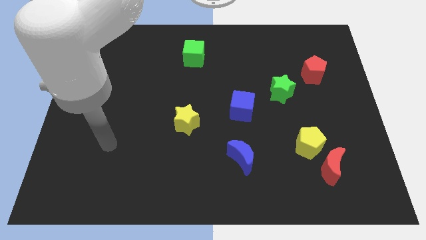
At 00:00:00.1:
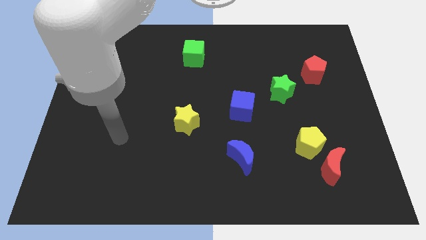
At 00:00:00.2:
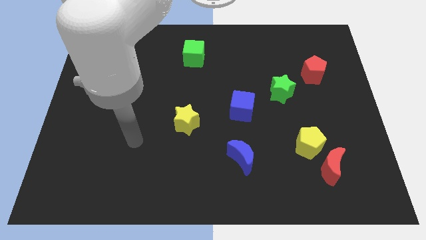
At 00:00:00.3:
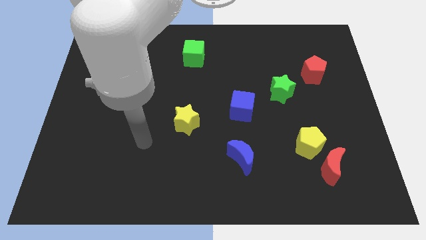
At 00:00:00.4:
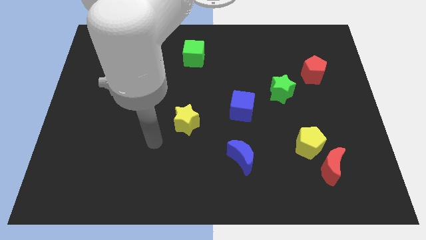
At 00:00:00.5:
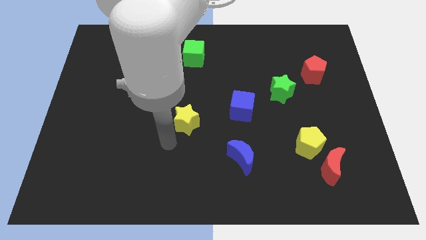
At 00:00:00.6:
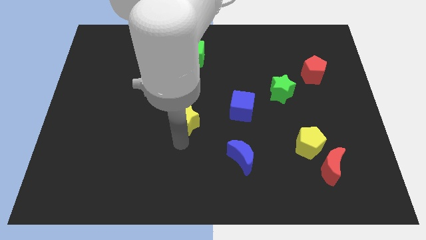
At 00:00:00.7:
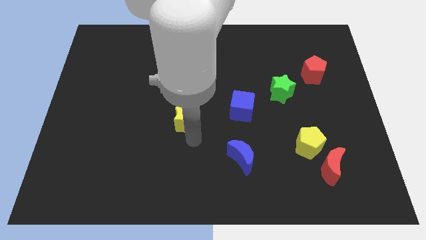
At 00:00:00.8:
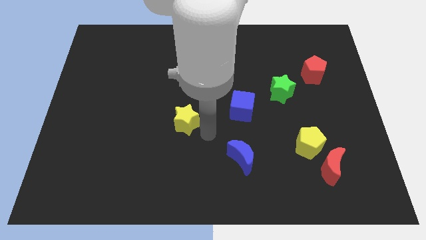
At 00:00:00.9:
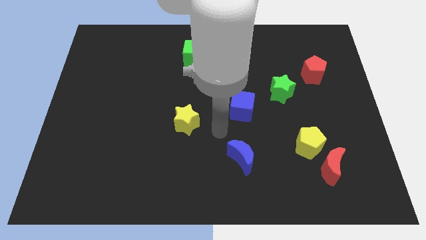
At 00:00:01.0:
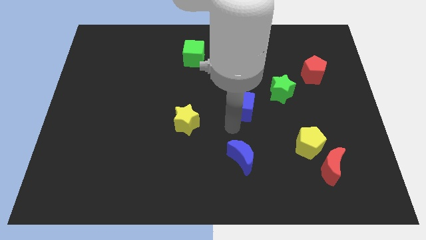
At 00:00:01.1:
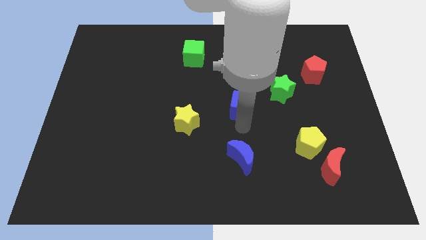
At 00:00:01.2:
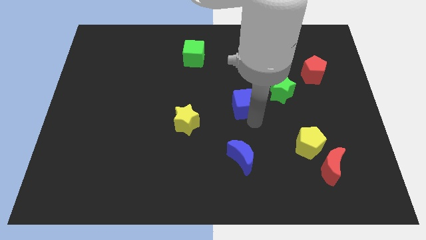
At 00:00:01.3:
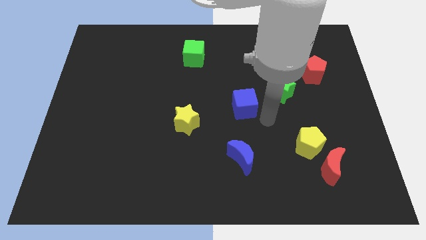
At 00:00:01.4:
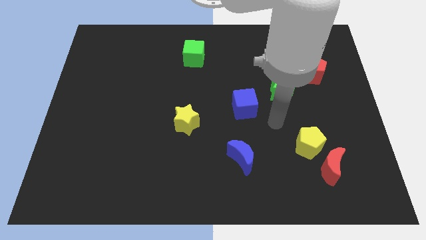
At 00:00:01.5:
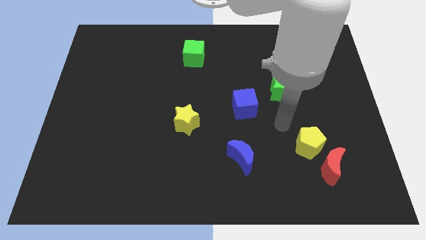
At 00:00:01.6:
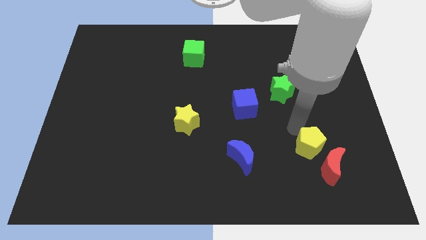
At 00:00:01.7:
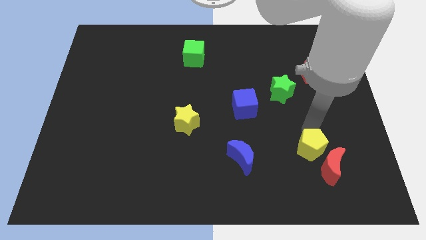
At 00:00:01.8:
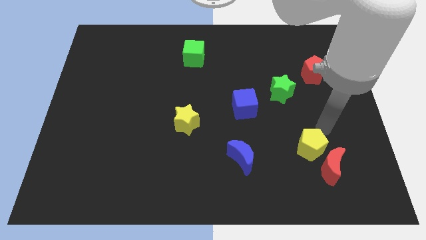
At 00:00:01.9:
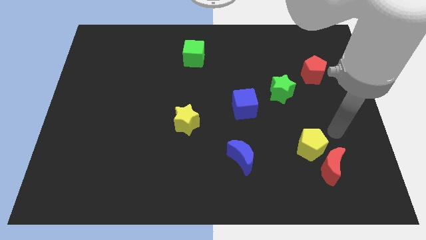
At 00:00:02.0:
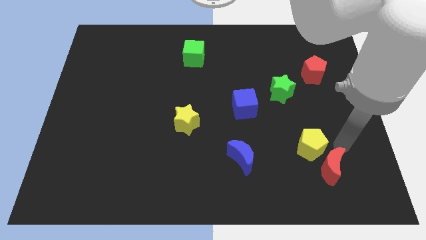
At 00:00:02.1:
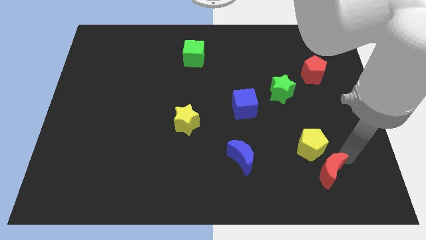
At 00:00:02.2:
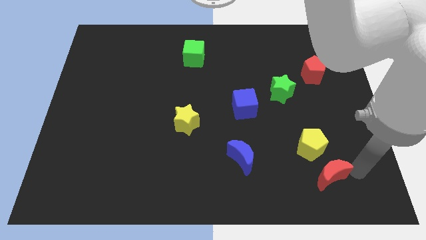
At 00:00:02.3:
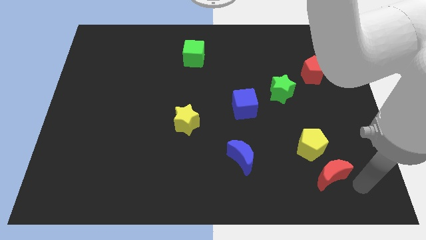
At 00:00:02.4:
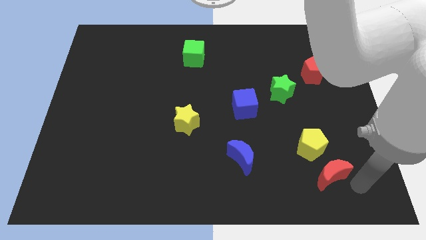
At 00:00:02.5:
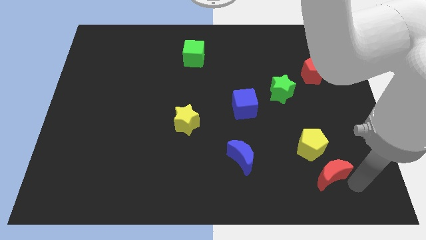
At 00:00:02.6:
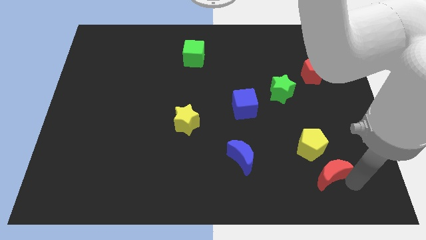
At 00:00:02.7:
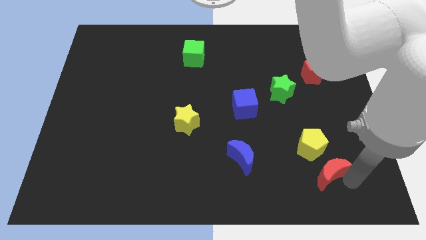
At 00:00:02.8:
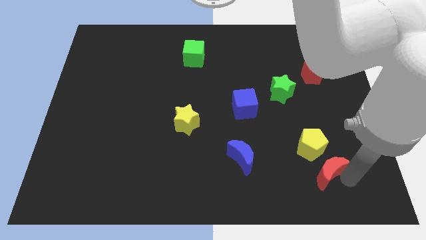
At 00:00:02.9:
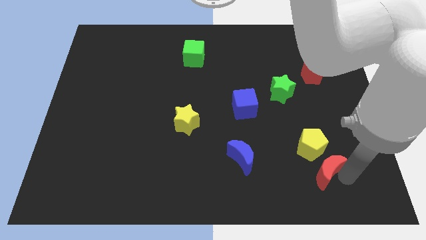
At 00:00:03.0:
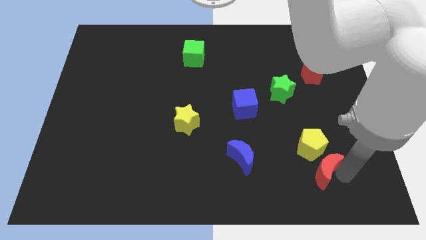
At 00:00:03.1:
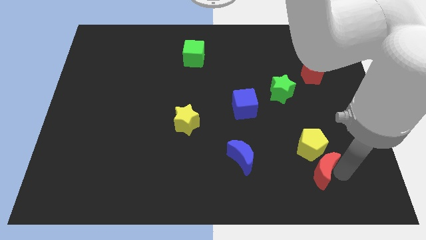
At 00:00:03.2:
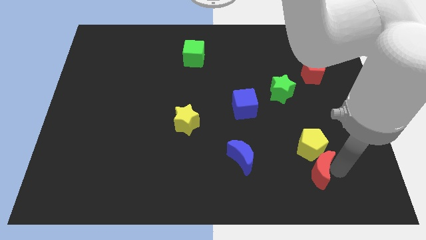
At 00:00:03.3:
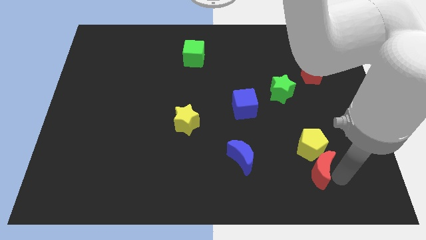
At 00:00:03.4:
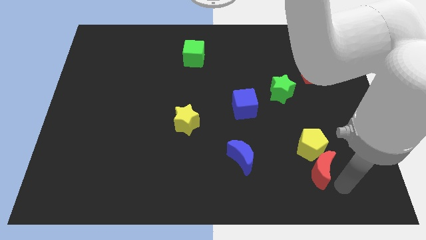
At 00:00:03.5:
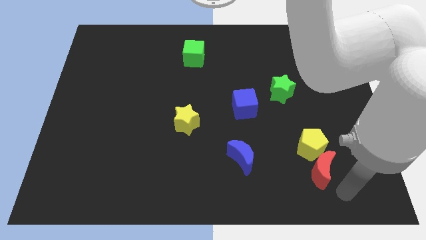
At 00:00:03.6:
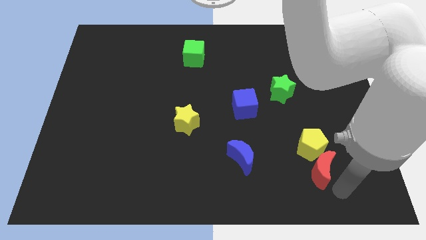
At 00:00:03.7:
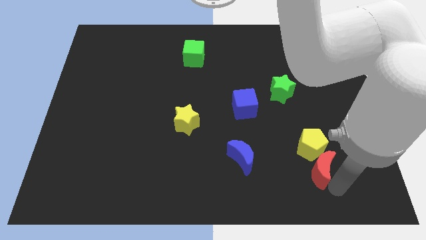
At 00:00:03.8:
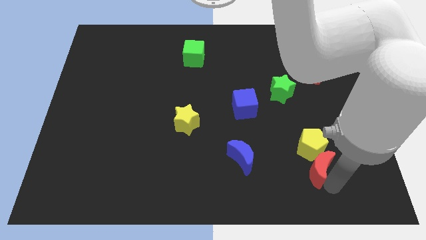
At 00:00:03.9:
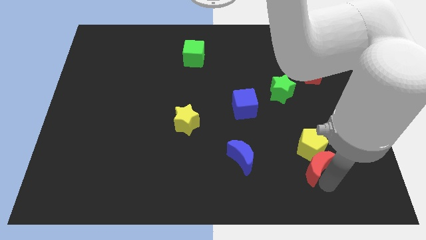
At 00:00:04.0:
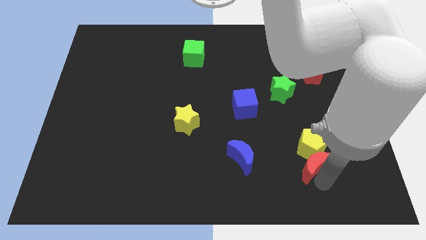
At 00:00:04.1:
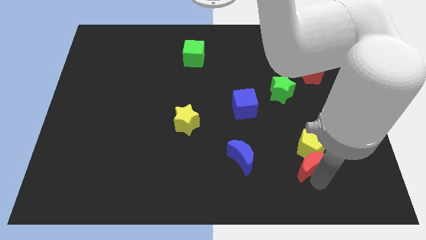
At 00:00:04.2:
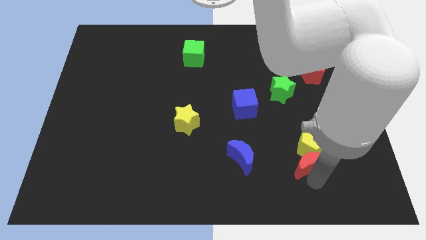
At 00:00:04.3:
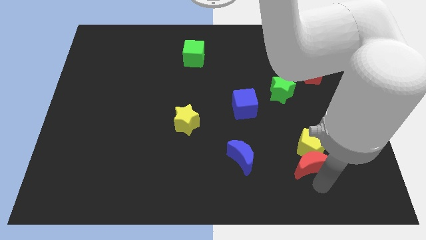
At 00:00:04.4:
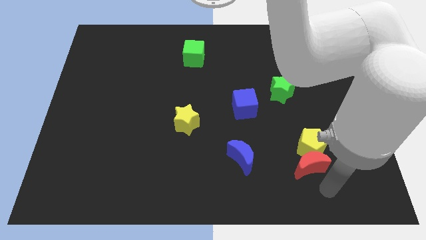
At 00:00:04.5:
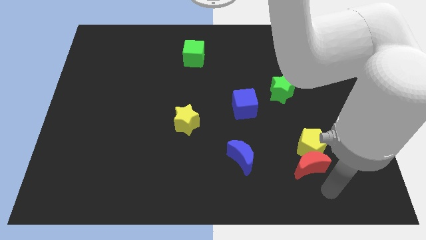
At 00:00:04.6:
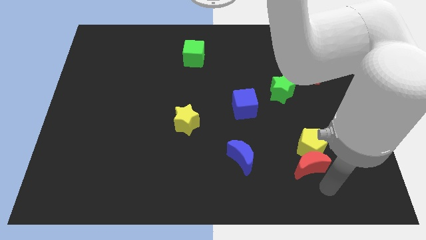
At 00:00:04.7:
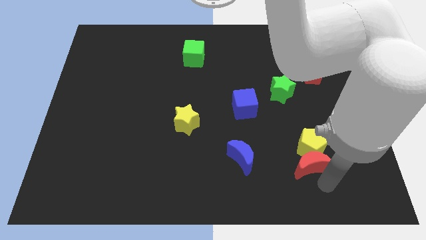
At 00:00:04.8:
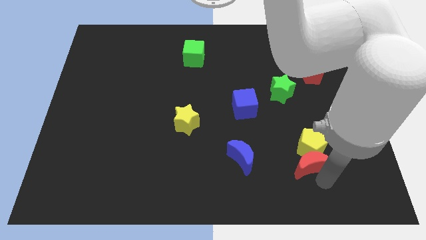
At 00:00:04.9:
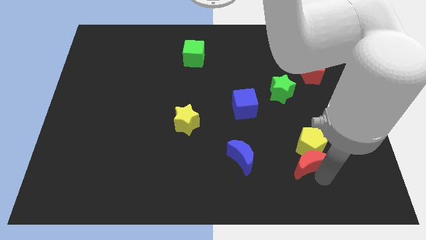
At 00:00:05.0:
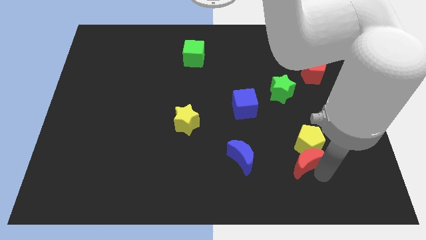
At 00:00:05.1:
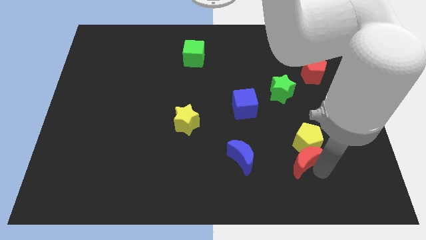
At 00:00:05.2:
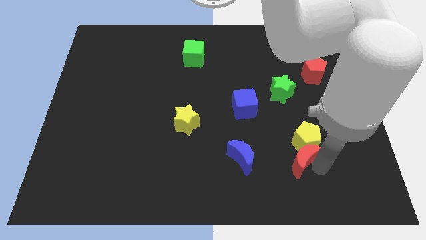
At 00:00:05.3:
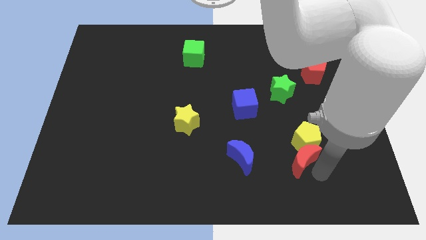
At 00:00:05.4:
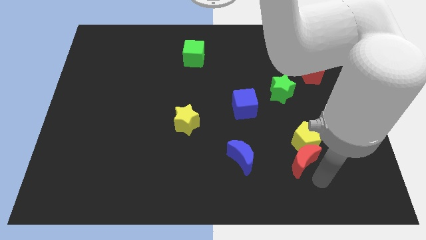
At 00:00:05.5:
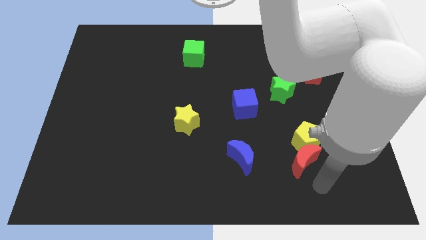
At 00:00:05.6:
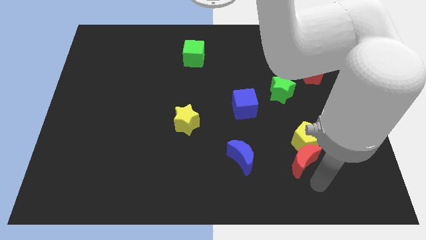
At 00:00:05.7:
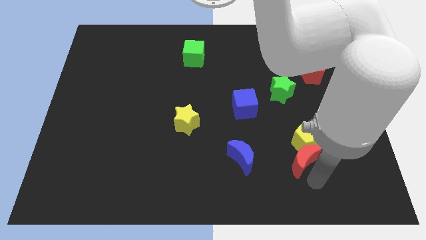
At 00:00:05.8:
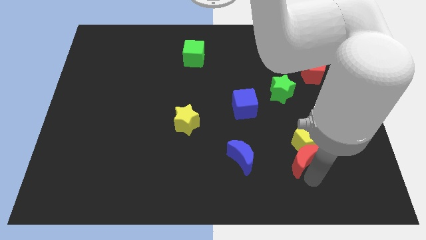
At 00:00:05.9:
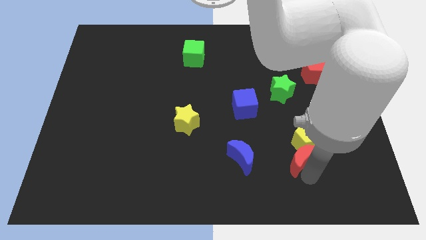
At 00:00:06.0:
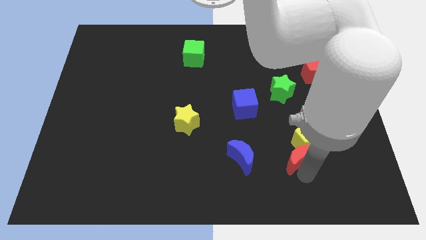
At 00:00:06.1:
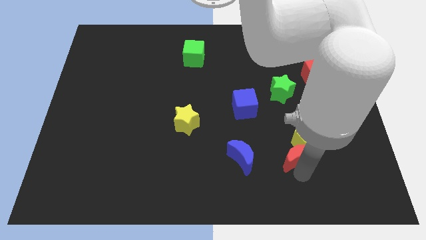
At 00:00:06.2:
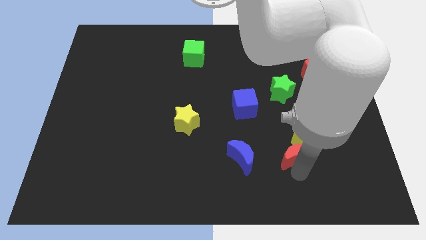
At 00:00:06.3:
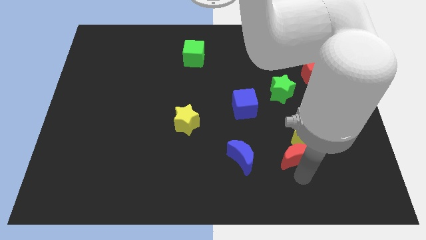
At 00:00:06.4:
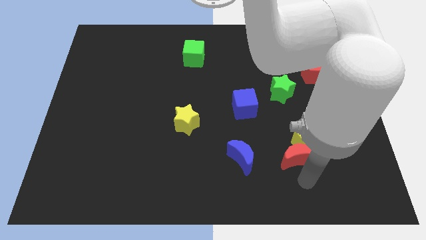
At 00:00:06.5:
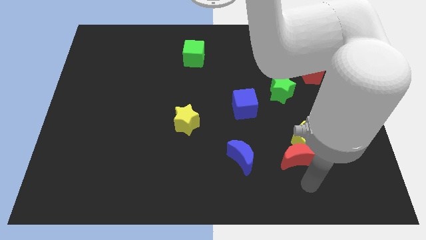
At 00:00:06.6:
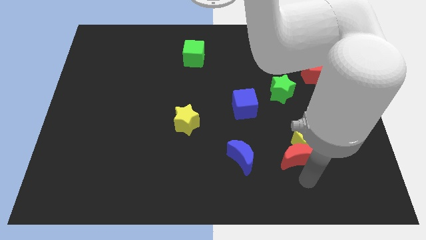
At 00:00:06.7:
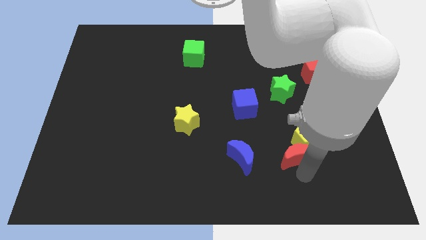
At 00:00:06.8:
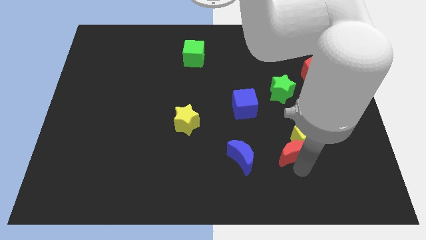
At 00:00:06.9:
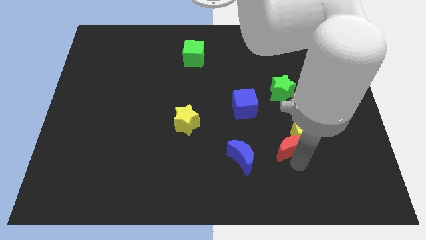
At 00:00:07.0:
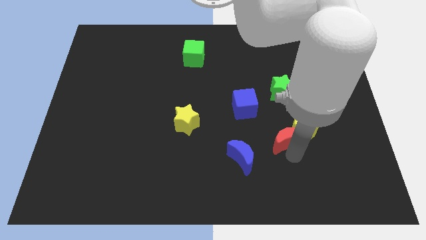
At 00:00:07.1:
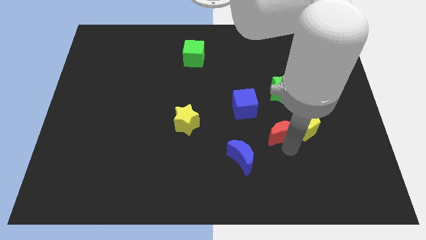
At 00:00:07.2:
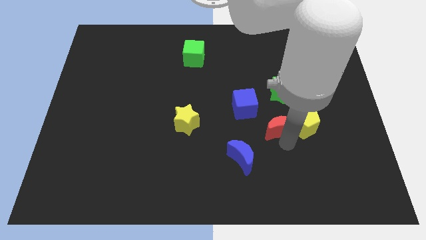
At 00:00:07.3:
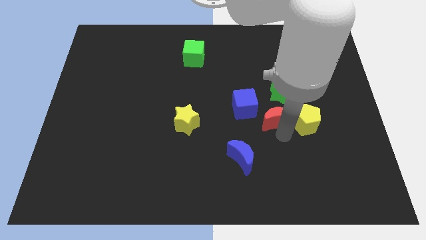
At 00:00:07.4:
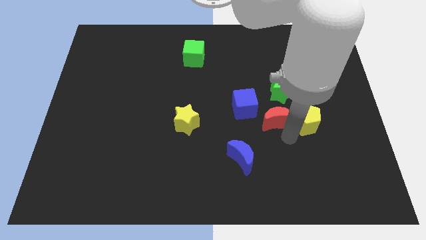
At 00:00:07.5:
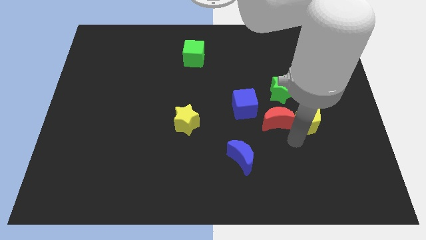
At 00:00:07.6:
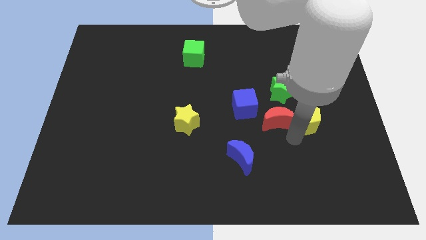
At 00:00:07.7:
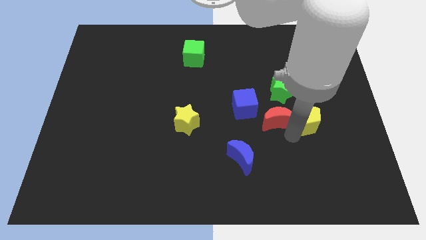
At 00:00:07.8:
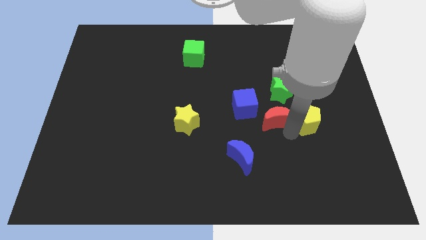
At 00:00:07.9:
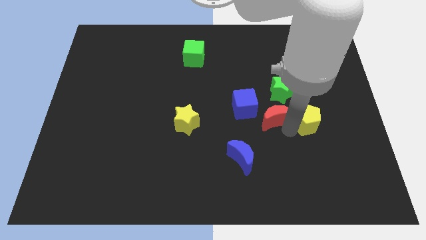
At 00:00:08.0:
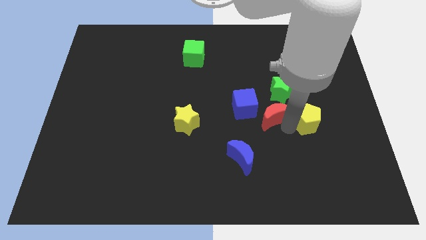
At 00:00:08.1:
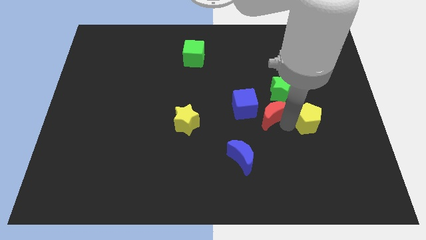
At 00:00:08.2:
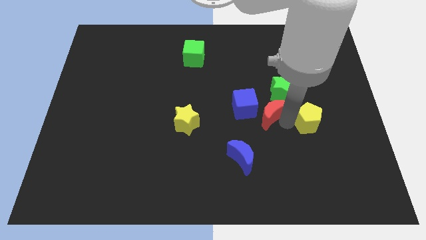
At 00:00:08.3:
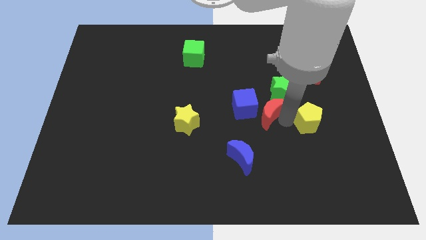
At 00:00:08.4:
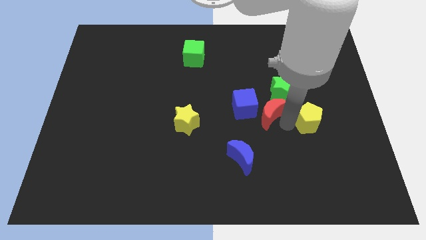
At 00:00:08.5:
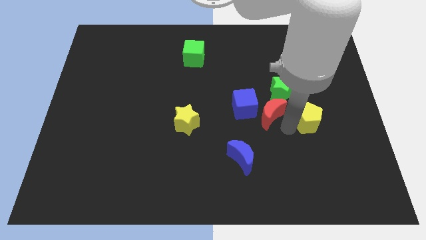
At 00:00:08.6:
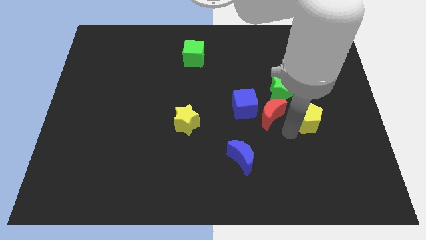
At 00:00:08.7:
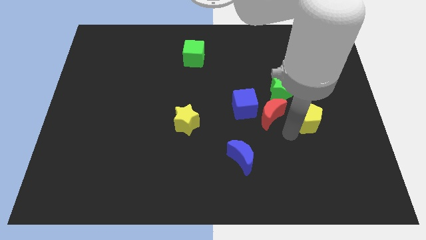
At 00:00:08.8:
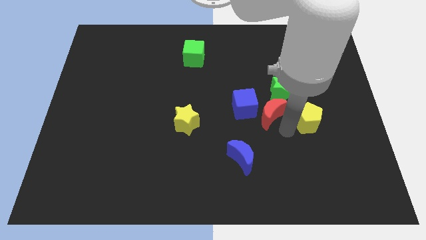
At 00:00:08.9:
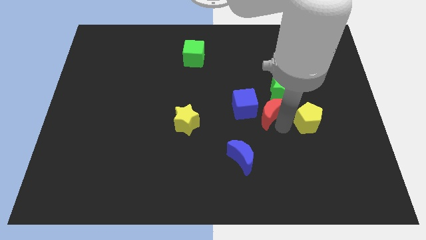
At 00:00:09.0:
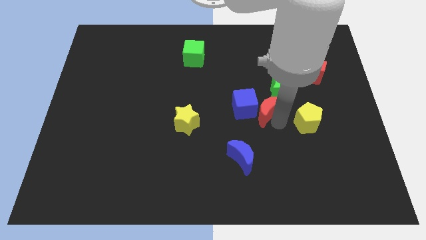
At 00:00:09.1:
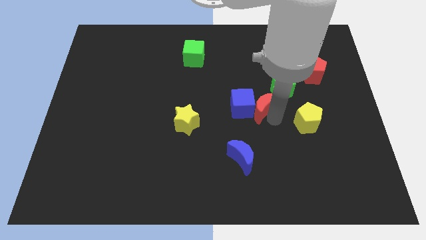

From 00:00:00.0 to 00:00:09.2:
move the red moon diagonally up and left
